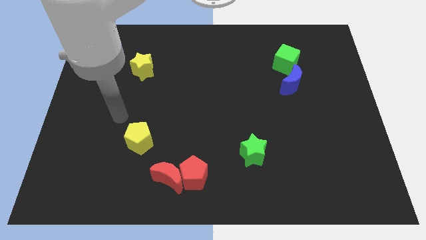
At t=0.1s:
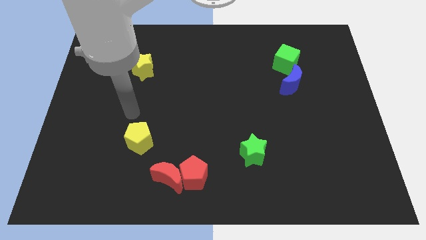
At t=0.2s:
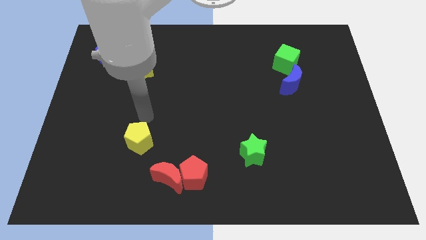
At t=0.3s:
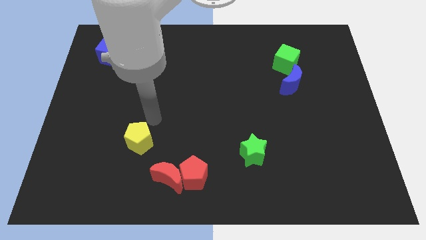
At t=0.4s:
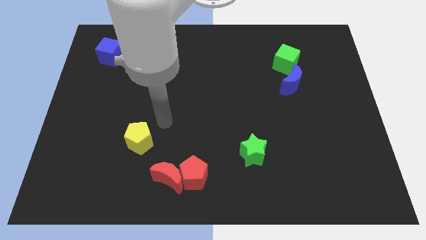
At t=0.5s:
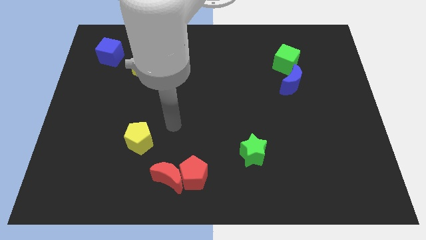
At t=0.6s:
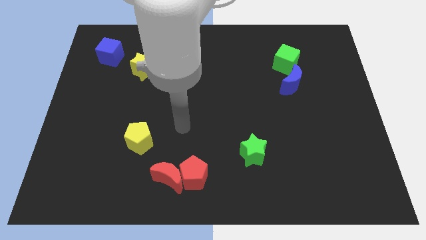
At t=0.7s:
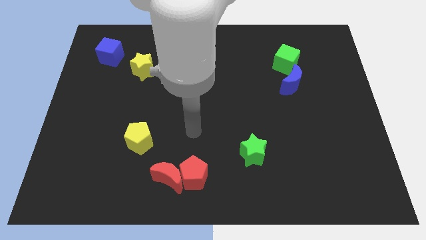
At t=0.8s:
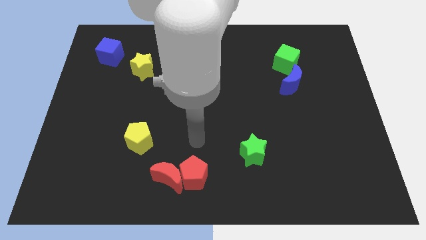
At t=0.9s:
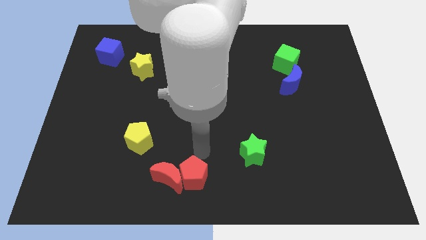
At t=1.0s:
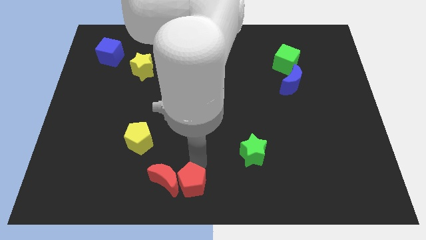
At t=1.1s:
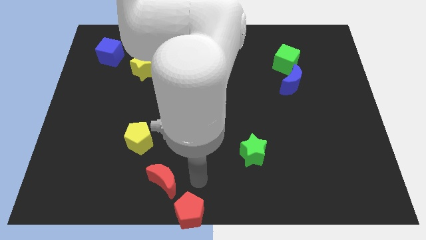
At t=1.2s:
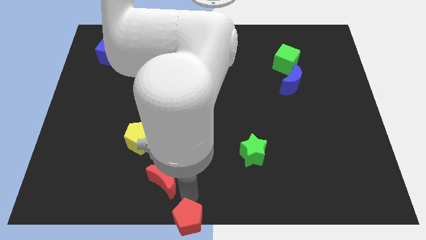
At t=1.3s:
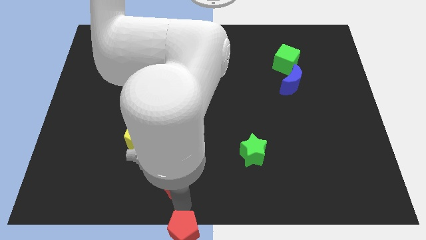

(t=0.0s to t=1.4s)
move the red moon away from the red pentagon

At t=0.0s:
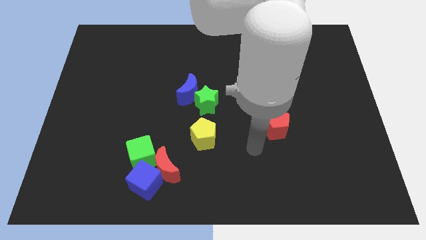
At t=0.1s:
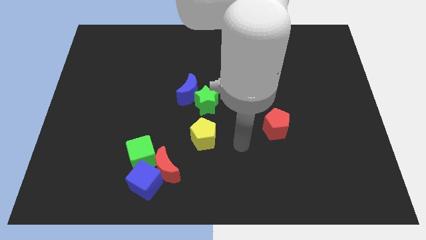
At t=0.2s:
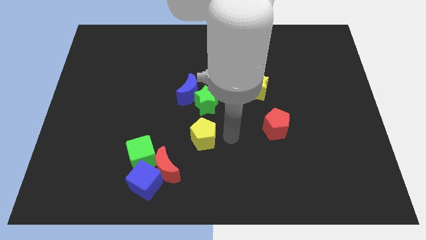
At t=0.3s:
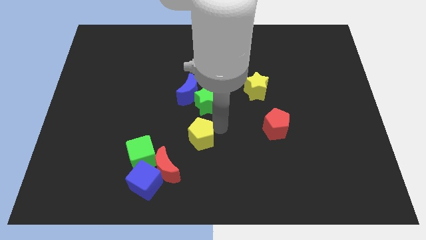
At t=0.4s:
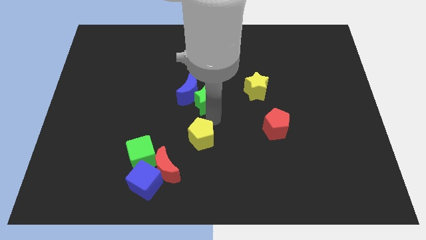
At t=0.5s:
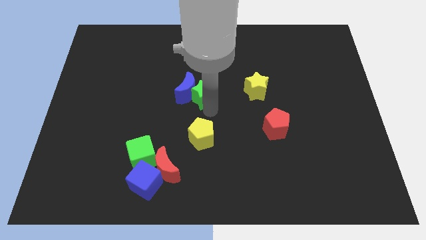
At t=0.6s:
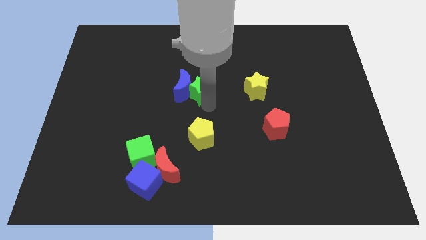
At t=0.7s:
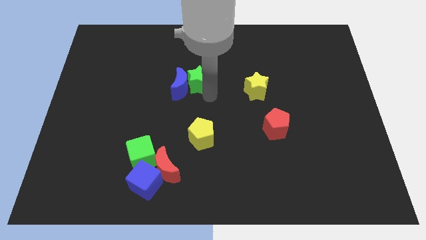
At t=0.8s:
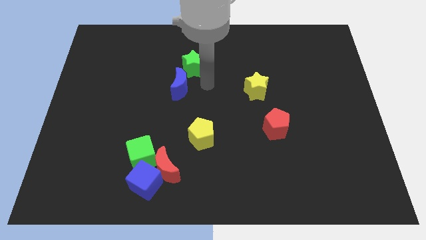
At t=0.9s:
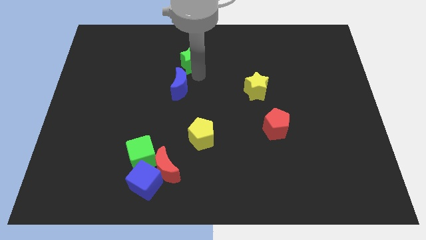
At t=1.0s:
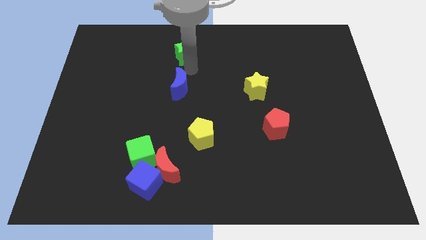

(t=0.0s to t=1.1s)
pull the blue moon apart from the green star

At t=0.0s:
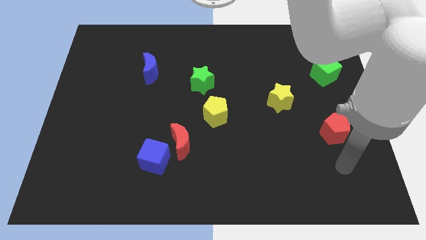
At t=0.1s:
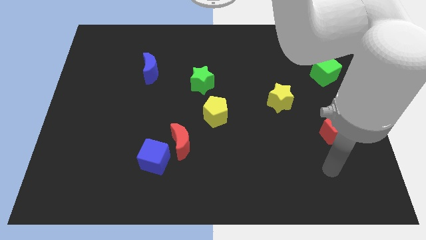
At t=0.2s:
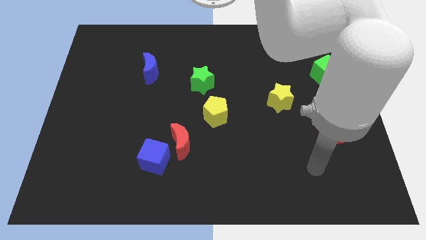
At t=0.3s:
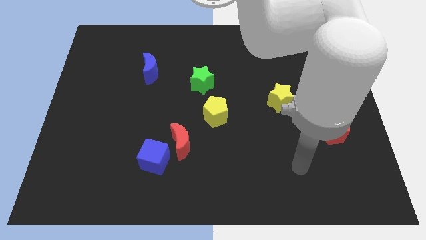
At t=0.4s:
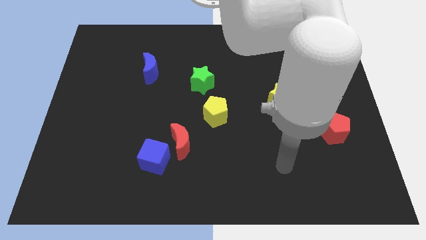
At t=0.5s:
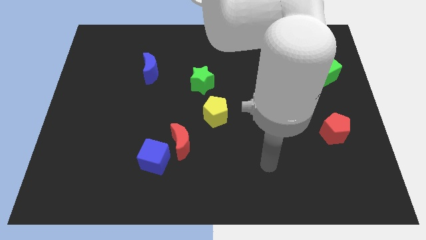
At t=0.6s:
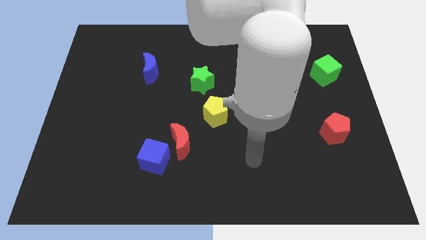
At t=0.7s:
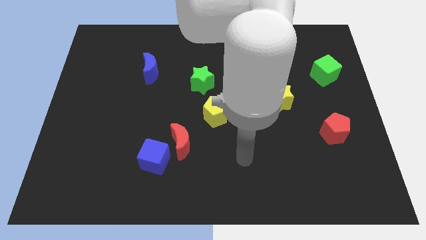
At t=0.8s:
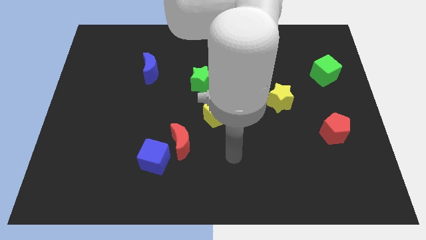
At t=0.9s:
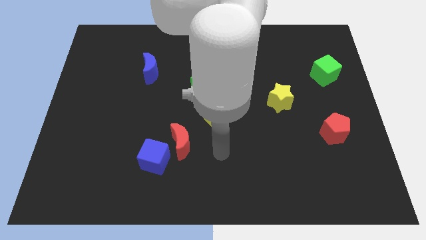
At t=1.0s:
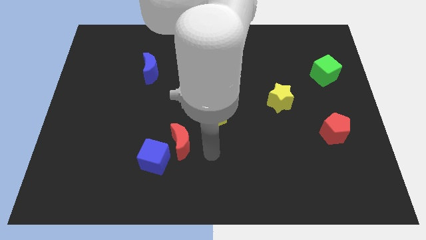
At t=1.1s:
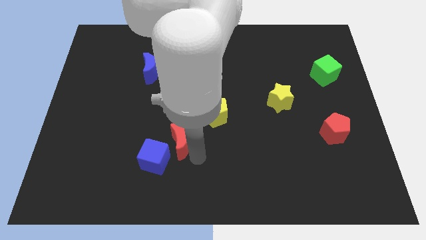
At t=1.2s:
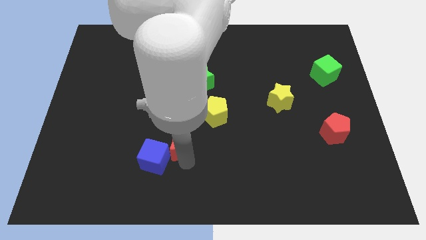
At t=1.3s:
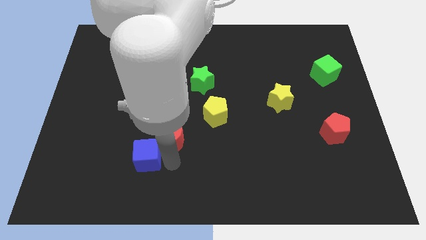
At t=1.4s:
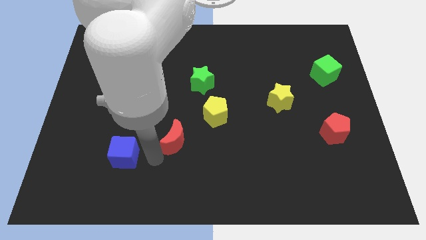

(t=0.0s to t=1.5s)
move the red moon away from the blue cube

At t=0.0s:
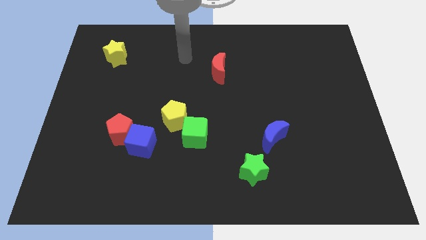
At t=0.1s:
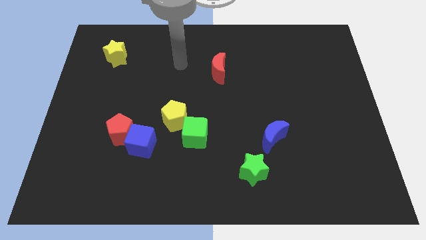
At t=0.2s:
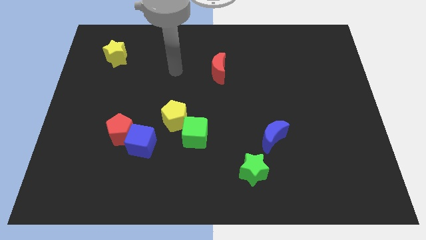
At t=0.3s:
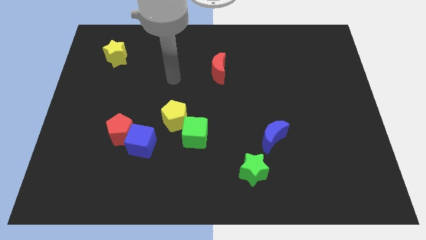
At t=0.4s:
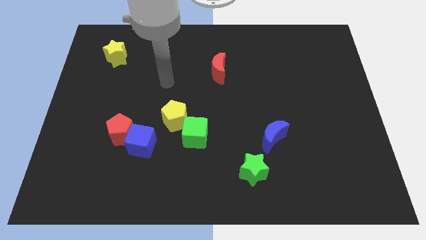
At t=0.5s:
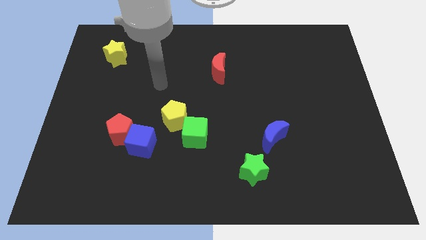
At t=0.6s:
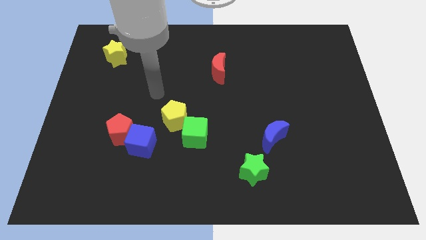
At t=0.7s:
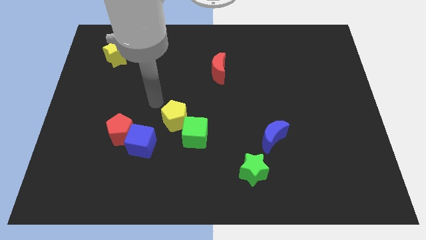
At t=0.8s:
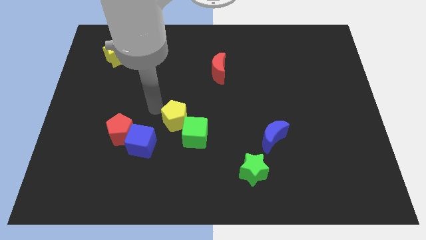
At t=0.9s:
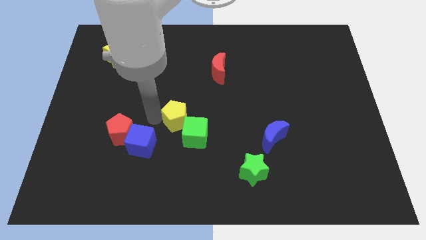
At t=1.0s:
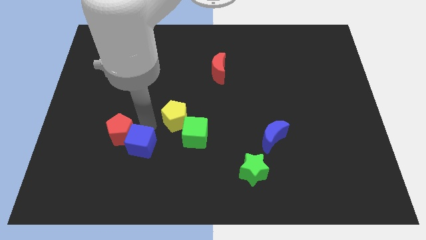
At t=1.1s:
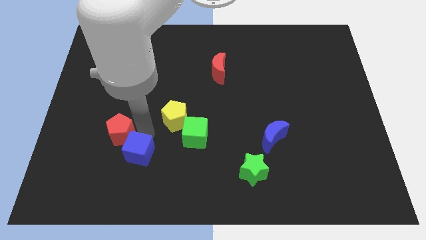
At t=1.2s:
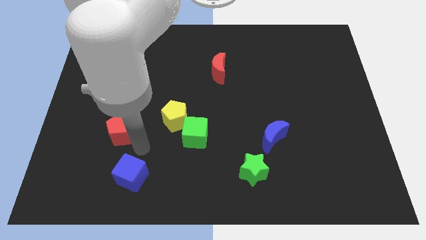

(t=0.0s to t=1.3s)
pull the red pentagon apart from the blue cube

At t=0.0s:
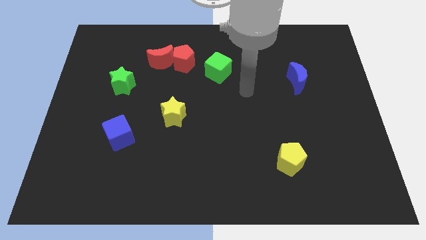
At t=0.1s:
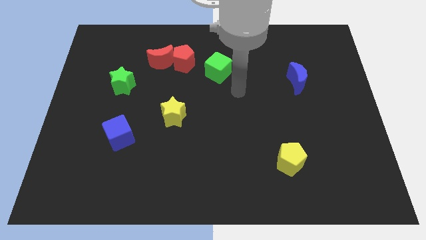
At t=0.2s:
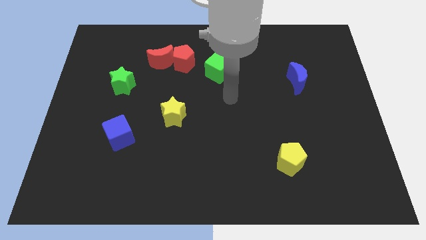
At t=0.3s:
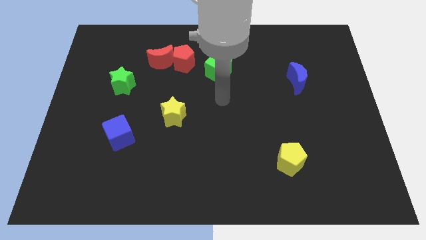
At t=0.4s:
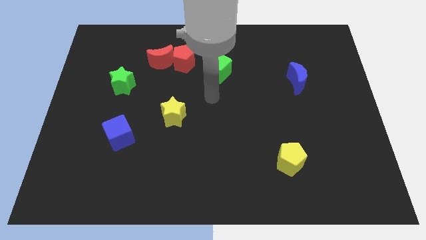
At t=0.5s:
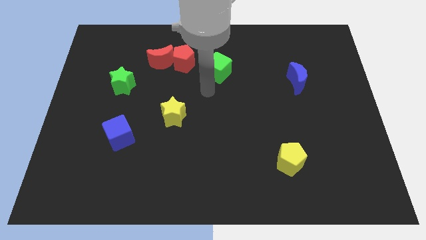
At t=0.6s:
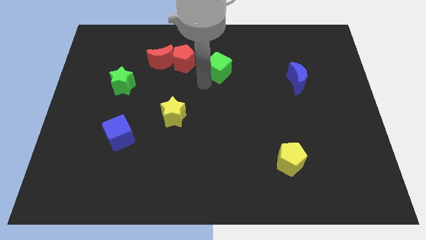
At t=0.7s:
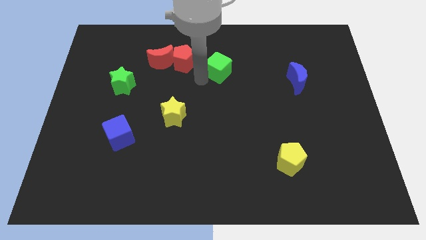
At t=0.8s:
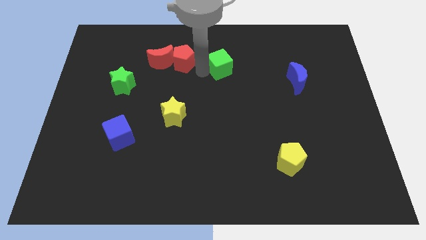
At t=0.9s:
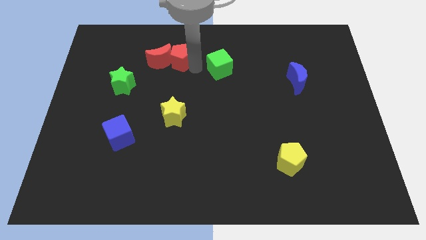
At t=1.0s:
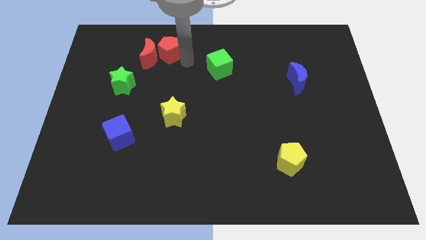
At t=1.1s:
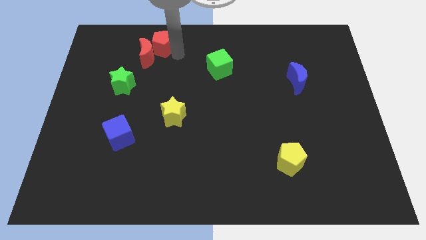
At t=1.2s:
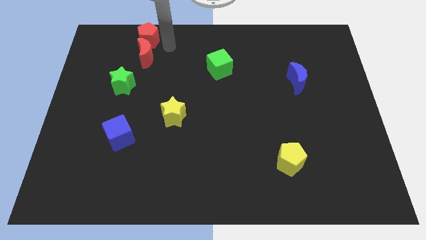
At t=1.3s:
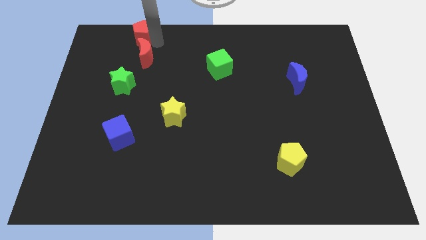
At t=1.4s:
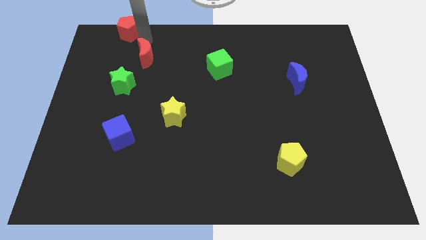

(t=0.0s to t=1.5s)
separate the red moon from the red pentagon

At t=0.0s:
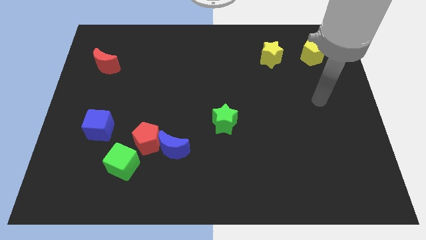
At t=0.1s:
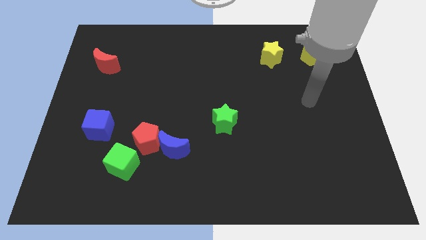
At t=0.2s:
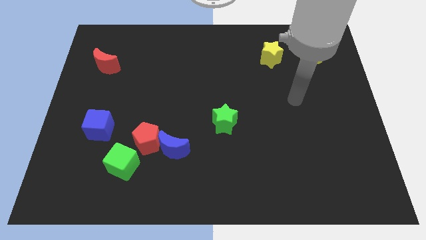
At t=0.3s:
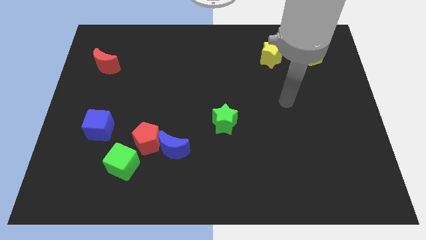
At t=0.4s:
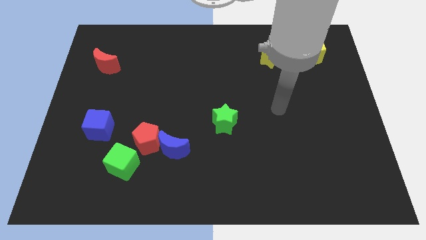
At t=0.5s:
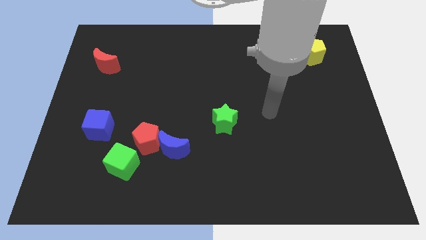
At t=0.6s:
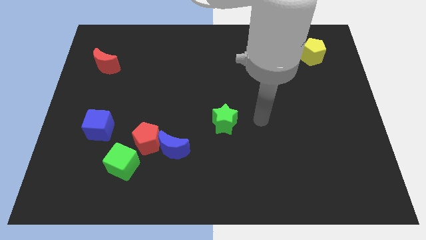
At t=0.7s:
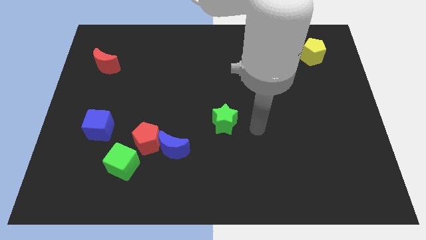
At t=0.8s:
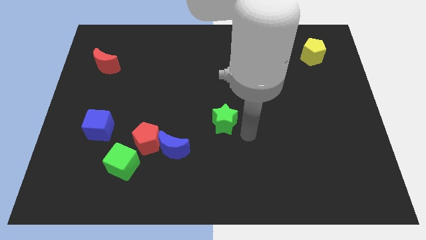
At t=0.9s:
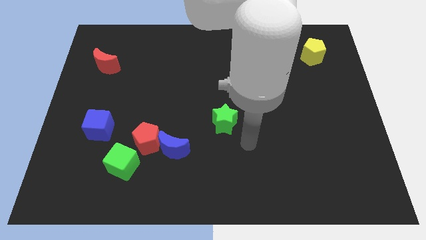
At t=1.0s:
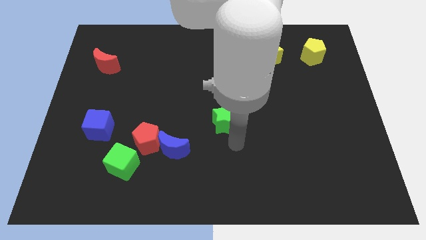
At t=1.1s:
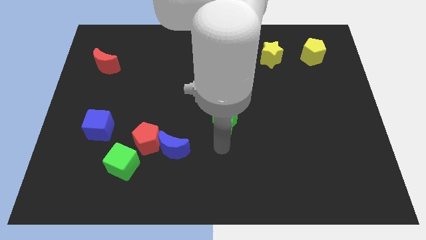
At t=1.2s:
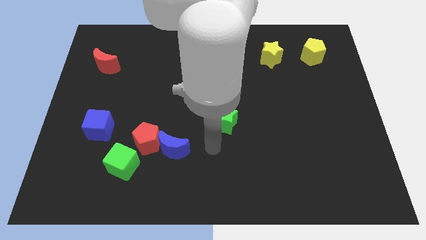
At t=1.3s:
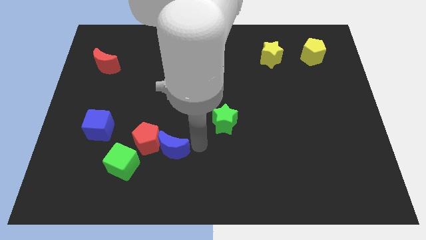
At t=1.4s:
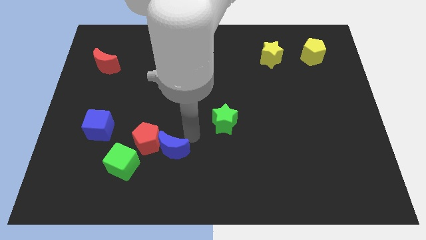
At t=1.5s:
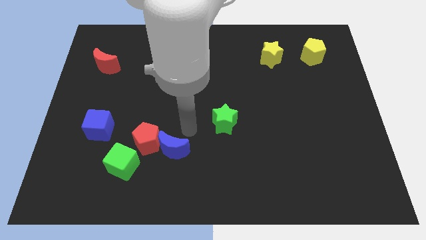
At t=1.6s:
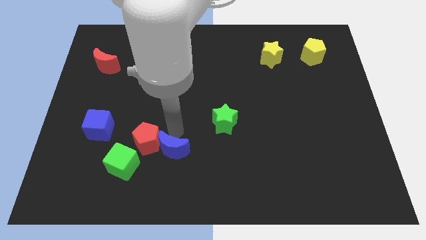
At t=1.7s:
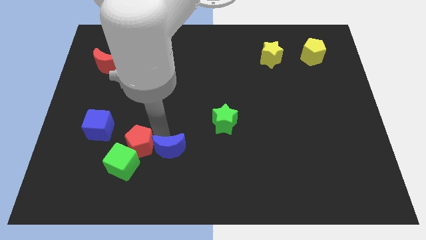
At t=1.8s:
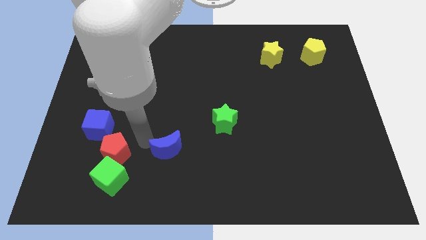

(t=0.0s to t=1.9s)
pull the blue moon apart from the red pentagon

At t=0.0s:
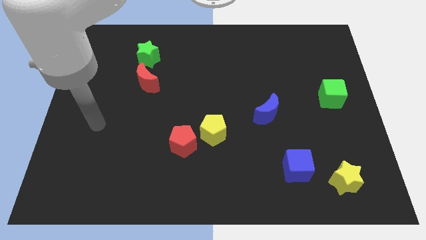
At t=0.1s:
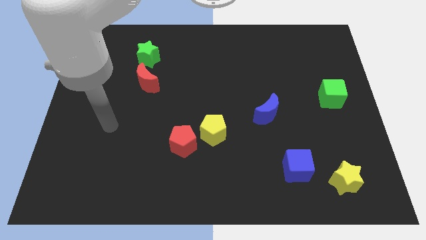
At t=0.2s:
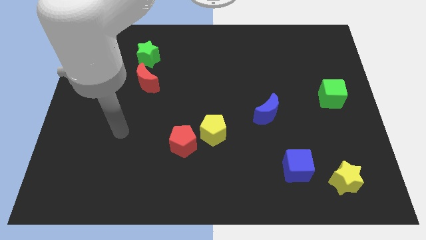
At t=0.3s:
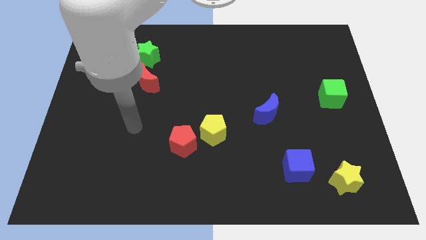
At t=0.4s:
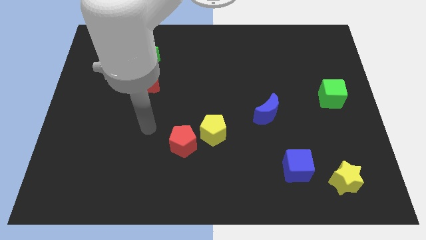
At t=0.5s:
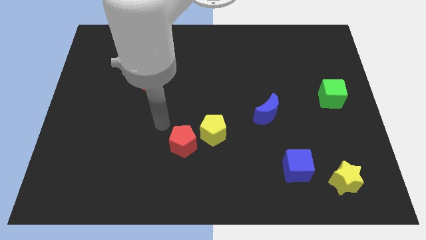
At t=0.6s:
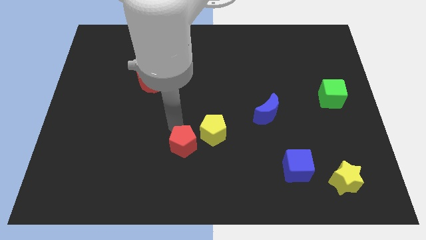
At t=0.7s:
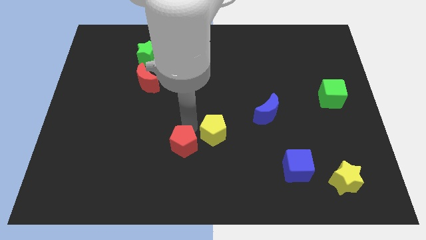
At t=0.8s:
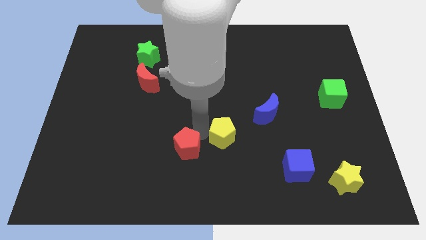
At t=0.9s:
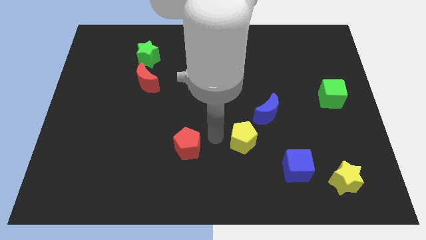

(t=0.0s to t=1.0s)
pull the red pentagon apart from the yellow pentagon
